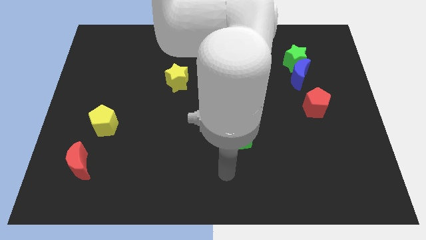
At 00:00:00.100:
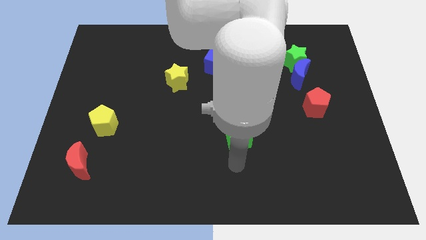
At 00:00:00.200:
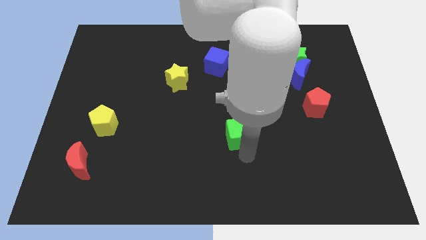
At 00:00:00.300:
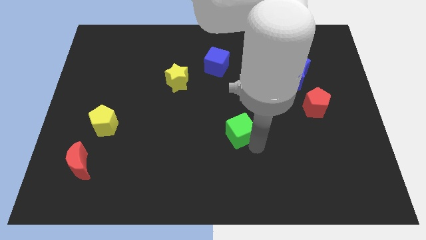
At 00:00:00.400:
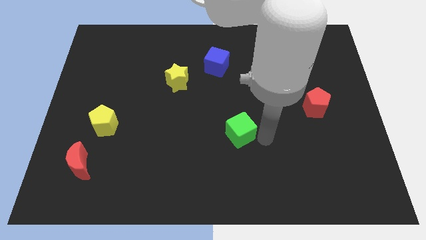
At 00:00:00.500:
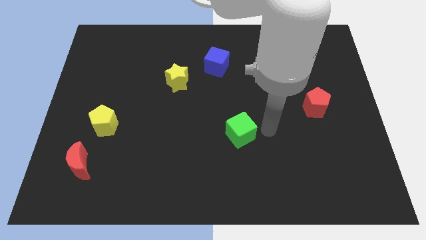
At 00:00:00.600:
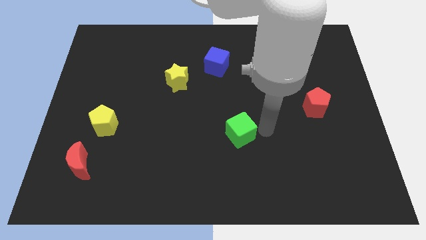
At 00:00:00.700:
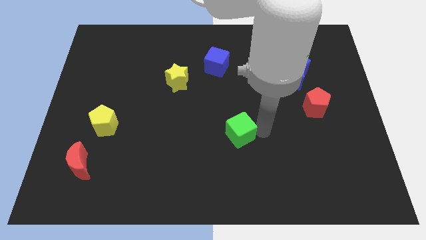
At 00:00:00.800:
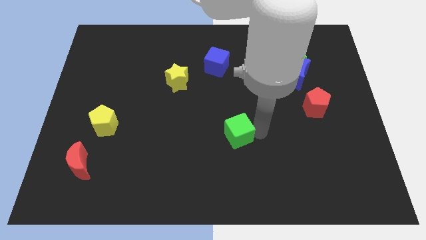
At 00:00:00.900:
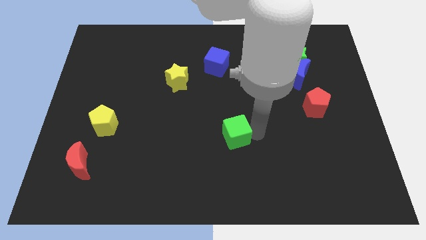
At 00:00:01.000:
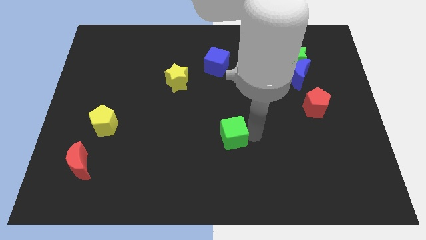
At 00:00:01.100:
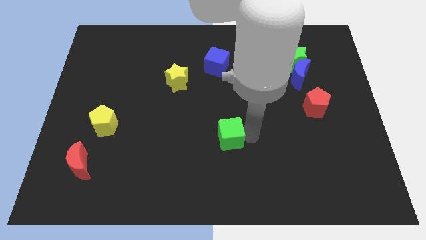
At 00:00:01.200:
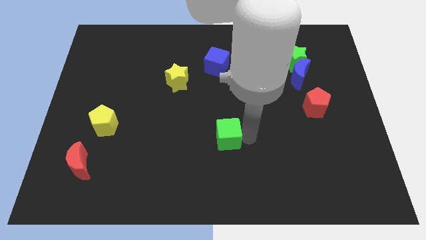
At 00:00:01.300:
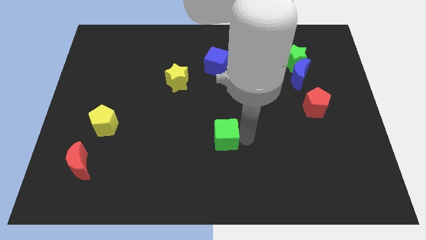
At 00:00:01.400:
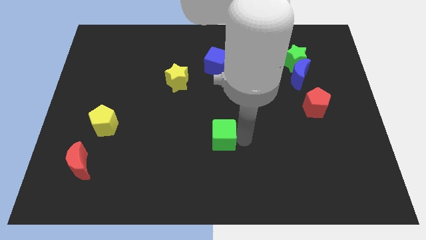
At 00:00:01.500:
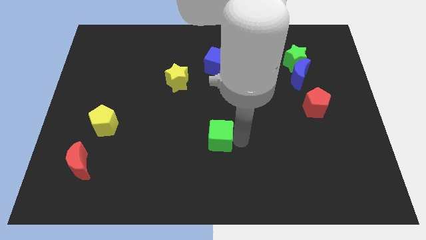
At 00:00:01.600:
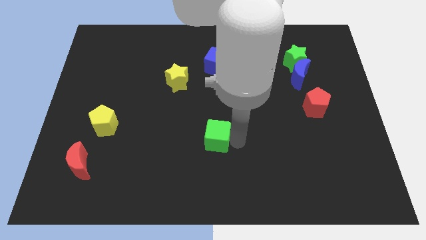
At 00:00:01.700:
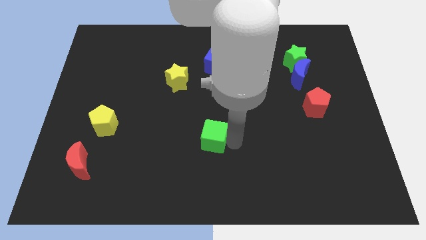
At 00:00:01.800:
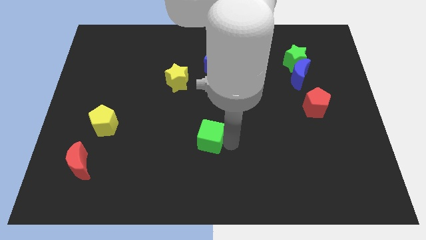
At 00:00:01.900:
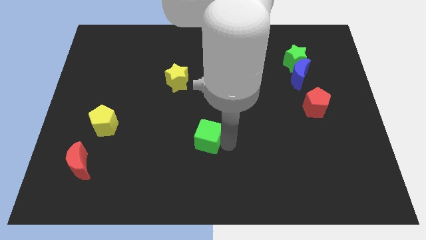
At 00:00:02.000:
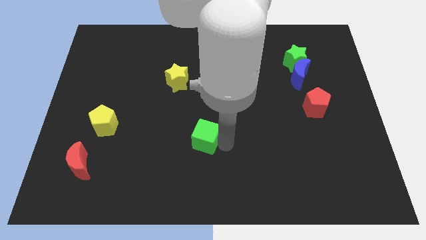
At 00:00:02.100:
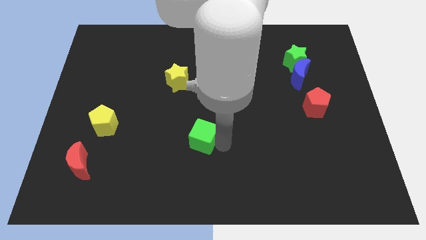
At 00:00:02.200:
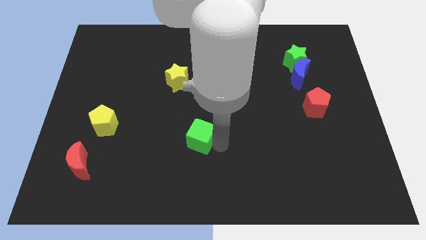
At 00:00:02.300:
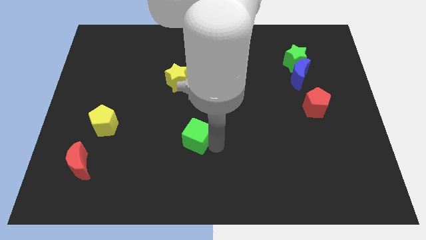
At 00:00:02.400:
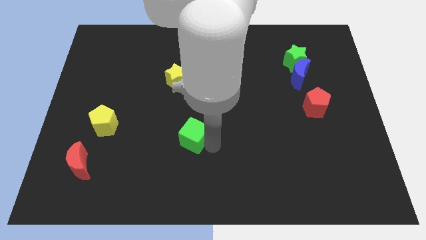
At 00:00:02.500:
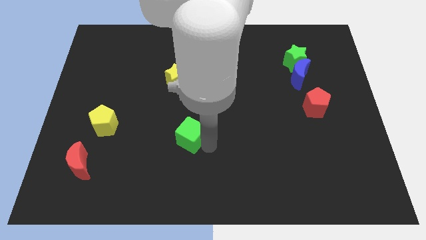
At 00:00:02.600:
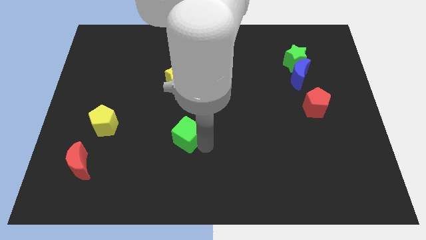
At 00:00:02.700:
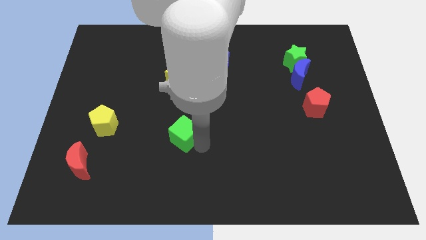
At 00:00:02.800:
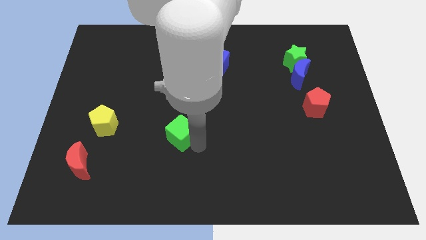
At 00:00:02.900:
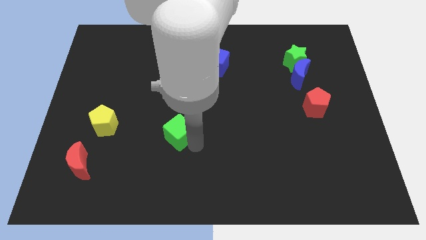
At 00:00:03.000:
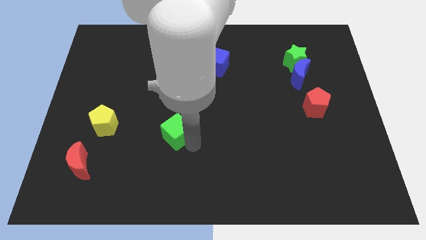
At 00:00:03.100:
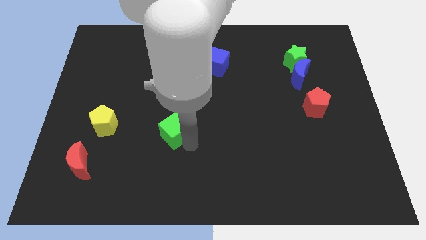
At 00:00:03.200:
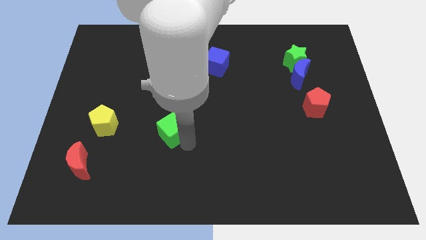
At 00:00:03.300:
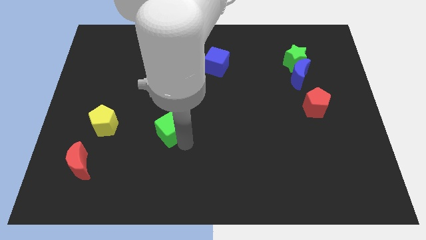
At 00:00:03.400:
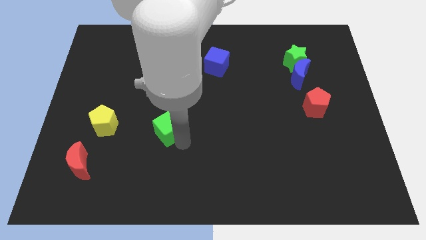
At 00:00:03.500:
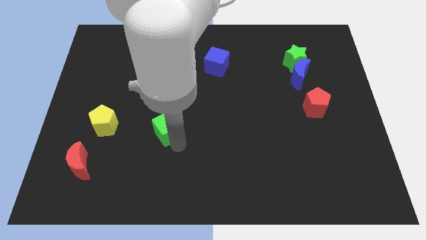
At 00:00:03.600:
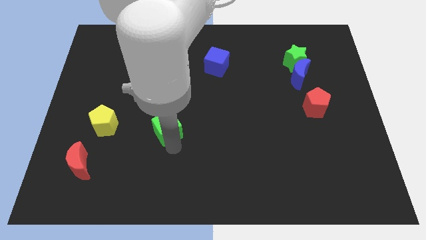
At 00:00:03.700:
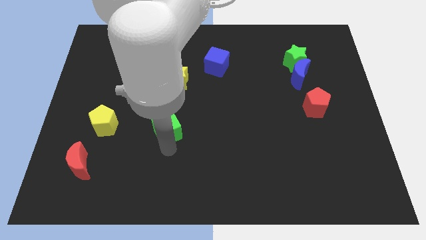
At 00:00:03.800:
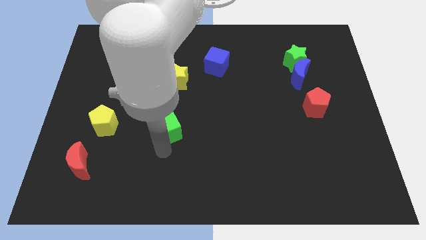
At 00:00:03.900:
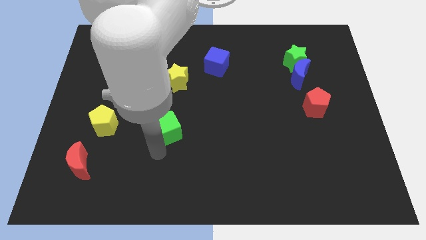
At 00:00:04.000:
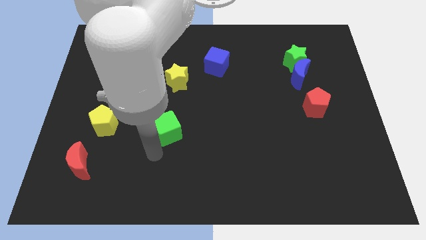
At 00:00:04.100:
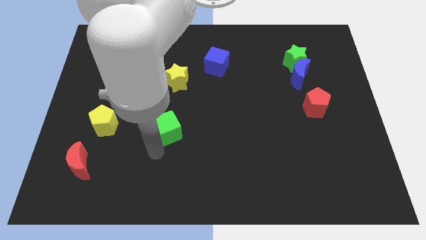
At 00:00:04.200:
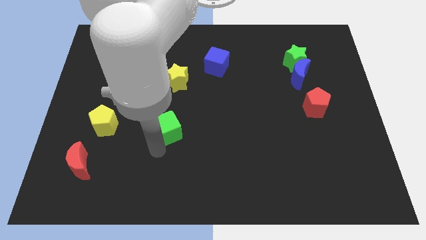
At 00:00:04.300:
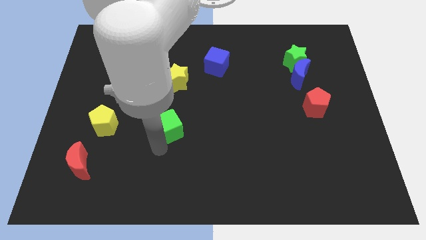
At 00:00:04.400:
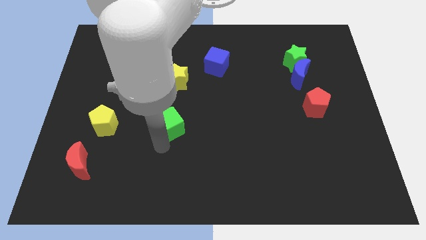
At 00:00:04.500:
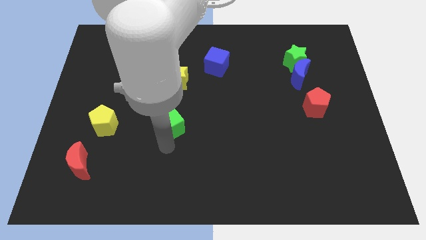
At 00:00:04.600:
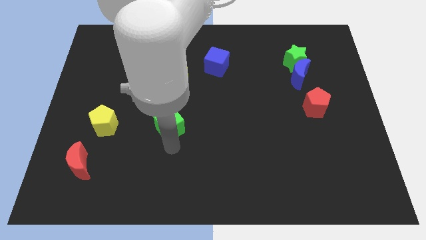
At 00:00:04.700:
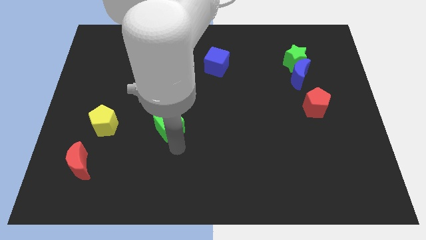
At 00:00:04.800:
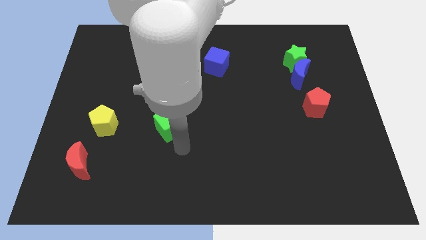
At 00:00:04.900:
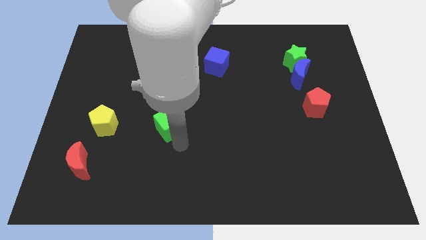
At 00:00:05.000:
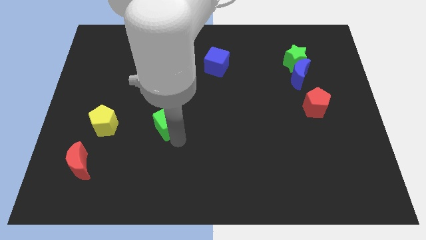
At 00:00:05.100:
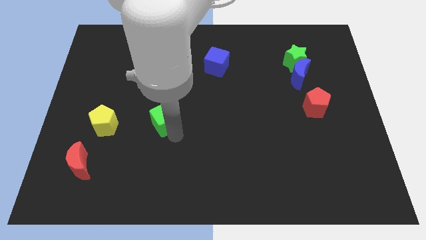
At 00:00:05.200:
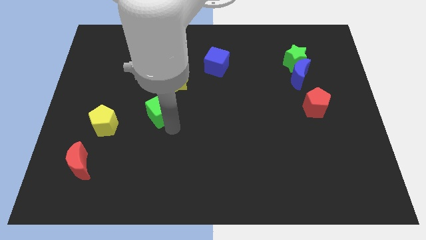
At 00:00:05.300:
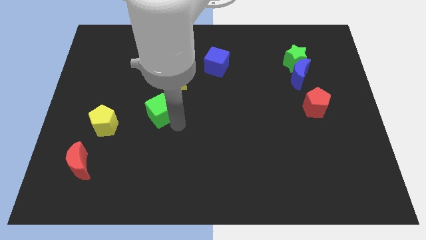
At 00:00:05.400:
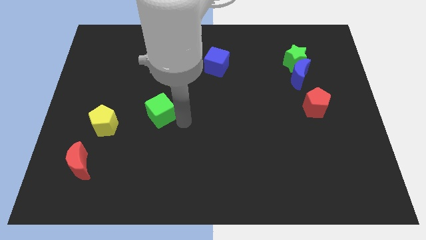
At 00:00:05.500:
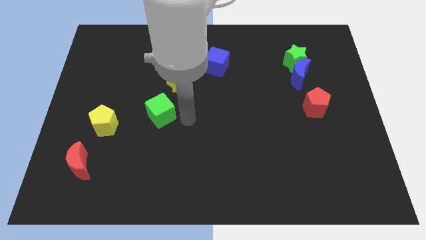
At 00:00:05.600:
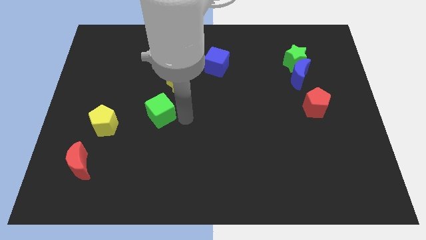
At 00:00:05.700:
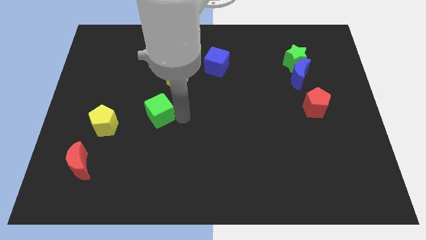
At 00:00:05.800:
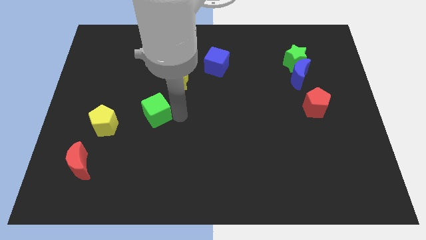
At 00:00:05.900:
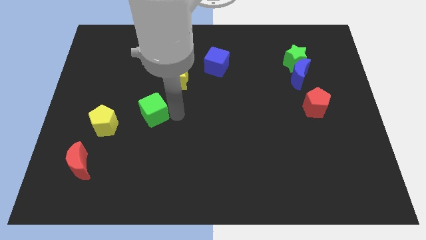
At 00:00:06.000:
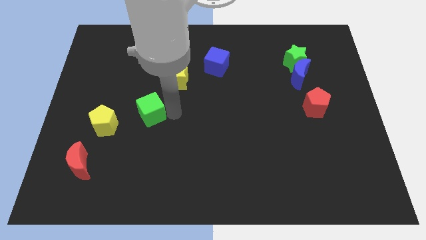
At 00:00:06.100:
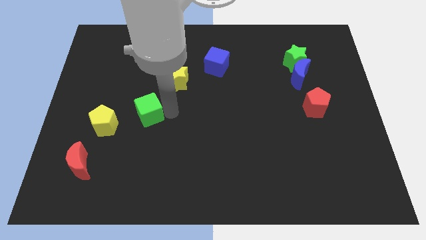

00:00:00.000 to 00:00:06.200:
move the green cube to the top right side of the yellow pentagon

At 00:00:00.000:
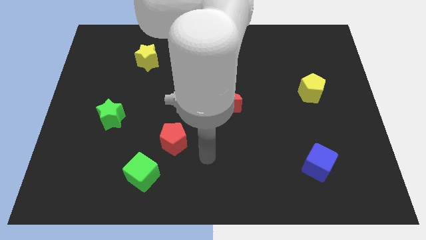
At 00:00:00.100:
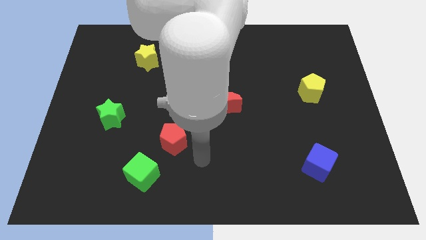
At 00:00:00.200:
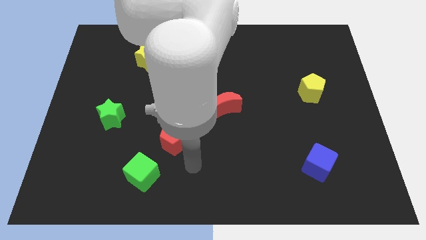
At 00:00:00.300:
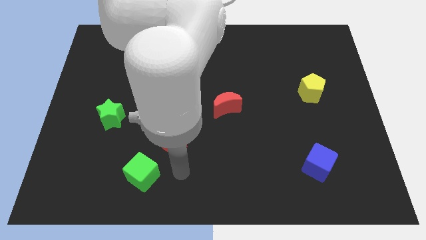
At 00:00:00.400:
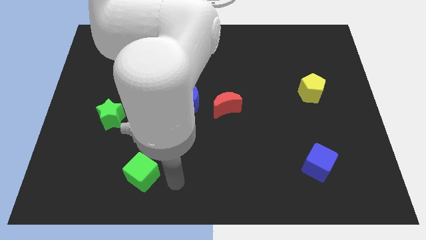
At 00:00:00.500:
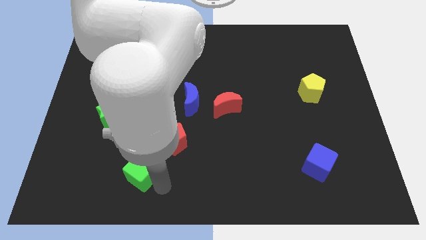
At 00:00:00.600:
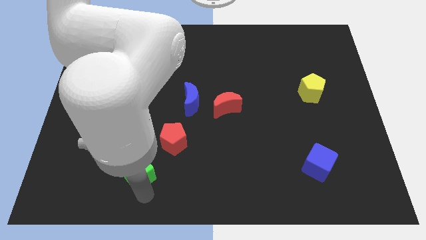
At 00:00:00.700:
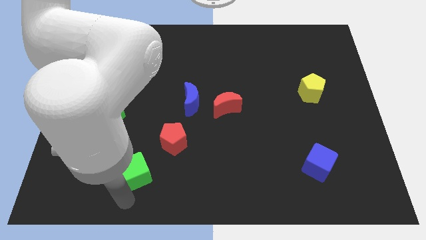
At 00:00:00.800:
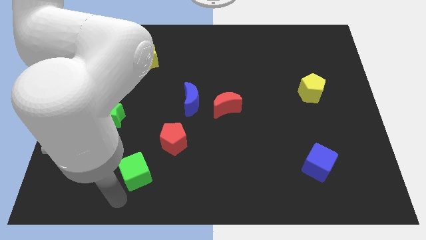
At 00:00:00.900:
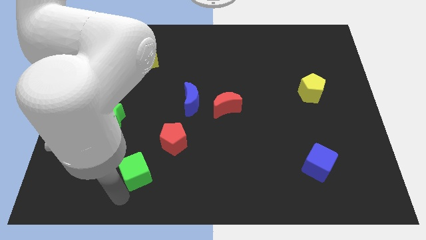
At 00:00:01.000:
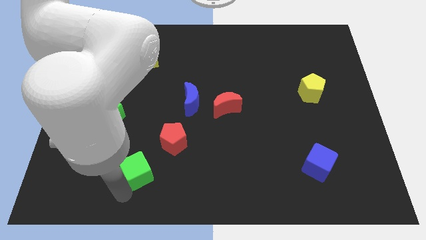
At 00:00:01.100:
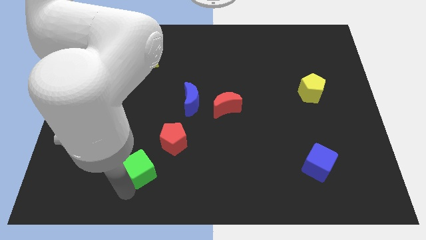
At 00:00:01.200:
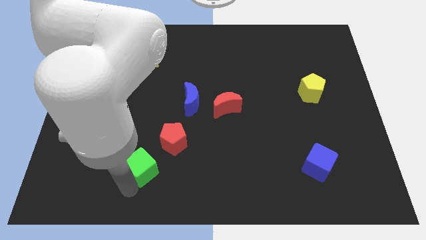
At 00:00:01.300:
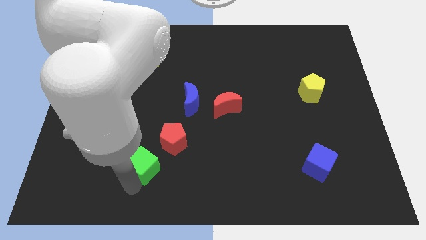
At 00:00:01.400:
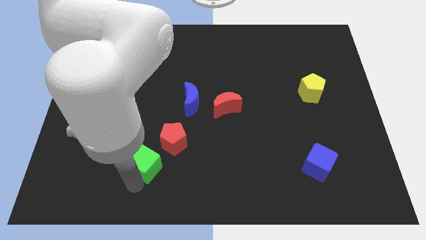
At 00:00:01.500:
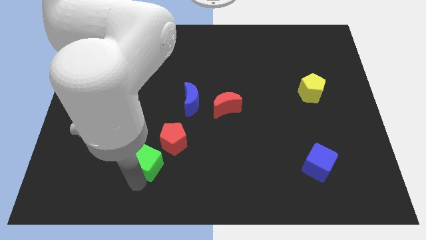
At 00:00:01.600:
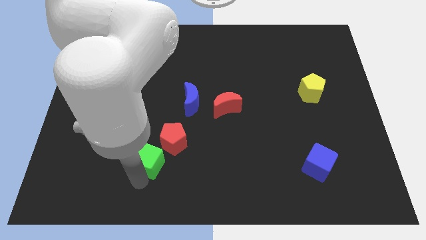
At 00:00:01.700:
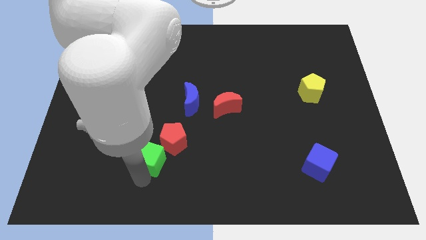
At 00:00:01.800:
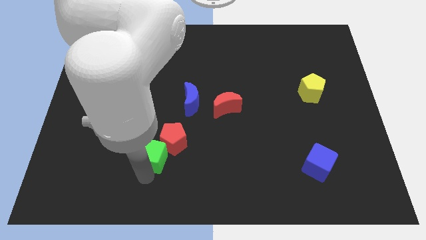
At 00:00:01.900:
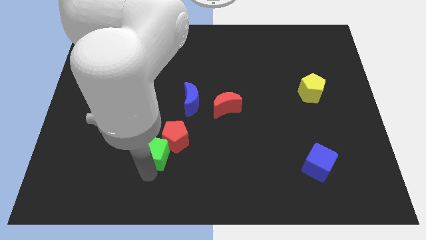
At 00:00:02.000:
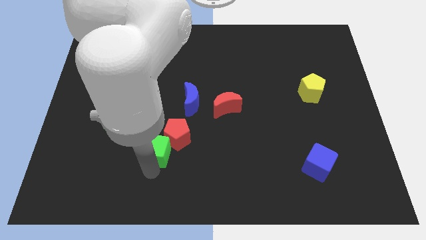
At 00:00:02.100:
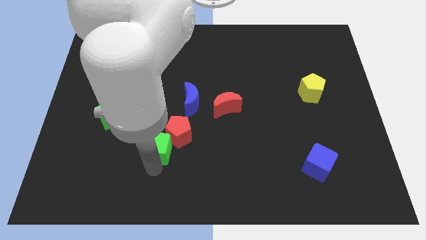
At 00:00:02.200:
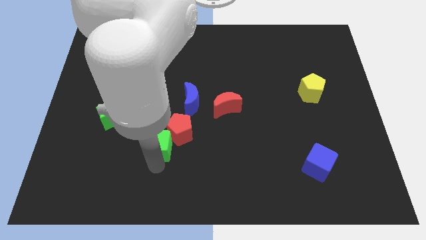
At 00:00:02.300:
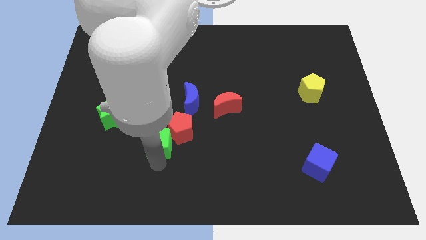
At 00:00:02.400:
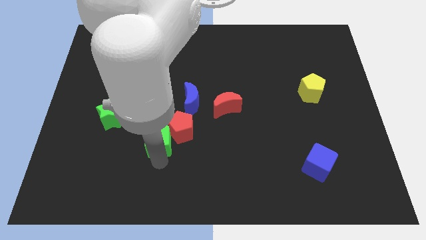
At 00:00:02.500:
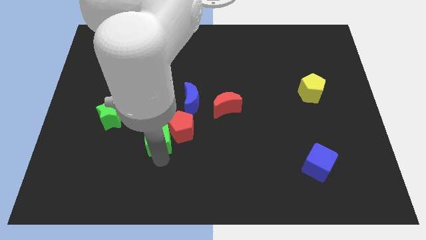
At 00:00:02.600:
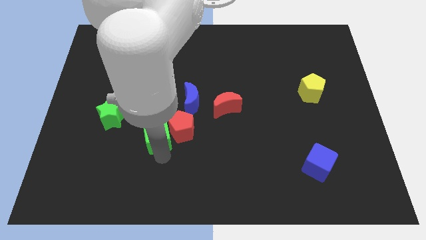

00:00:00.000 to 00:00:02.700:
move the green cube to the bottom left of the blue moon
